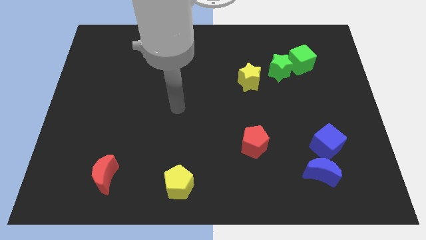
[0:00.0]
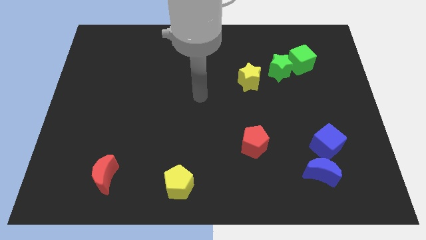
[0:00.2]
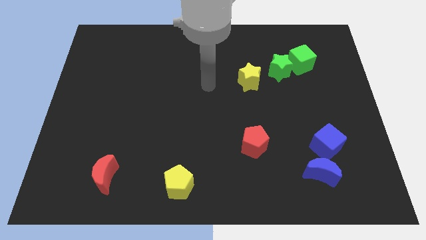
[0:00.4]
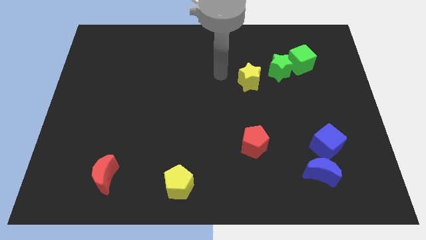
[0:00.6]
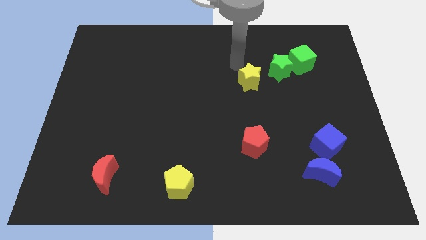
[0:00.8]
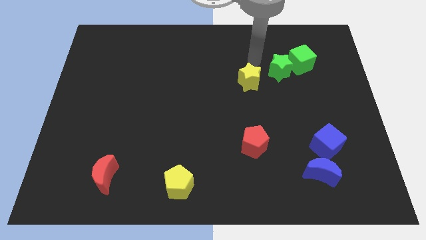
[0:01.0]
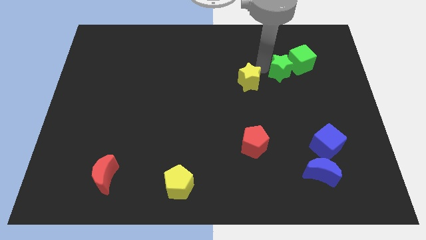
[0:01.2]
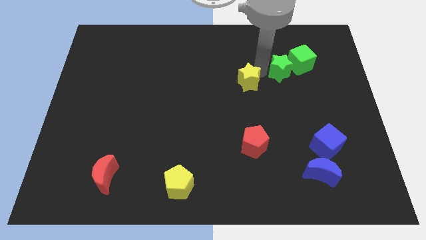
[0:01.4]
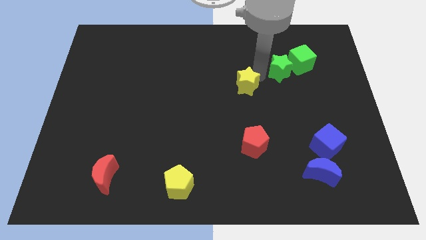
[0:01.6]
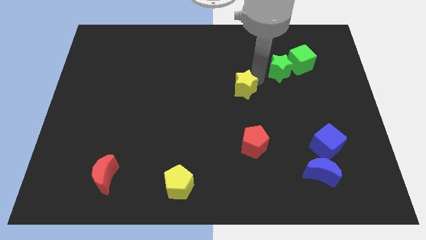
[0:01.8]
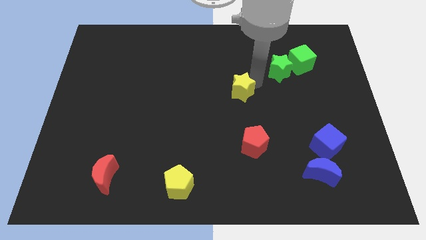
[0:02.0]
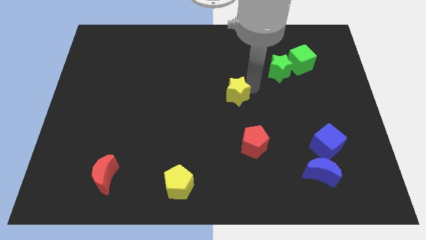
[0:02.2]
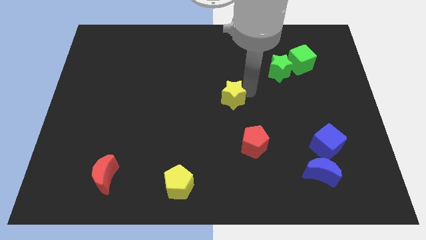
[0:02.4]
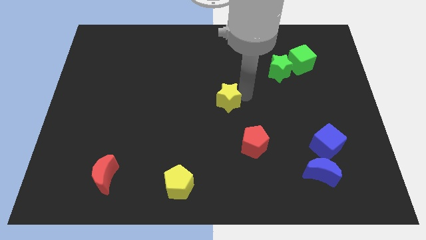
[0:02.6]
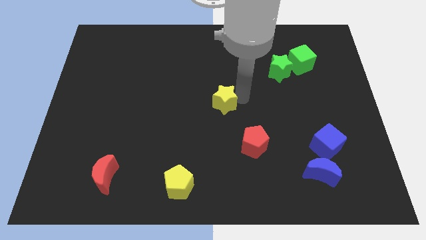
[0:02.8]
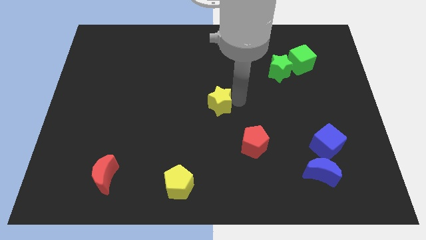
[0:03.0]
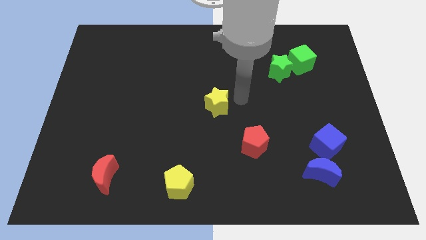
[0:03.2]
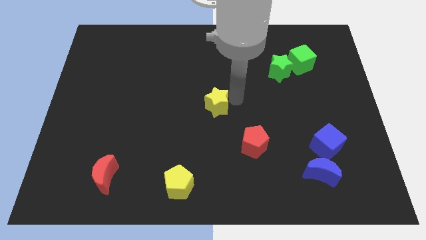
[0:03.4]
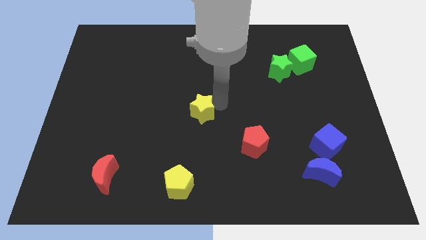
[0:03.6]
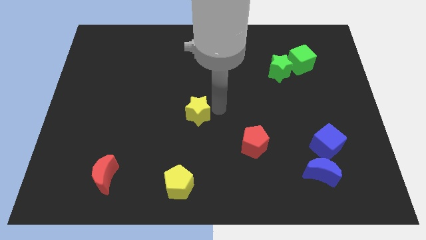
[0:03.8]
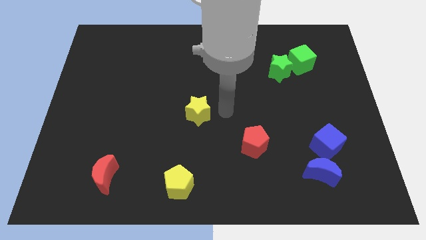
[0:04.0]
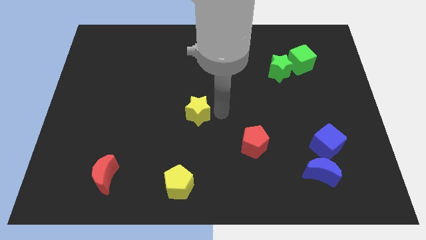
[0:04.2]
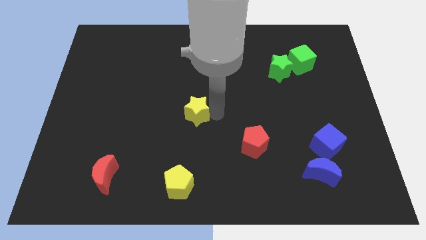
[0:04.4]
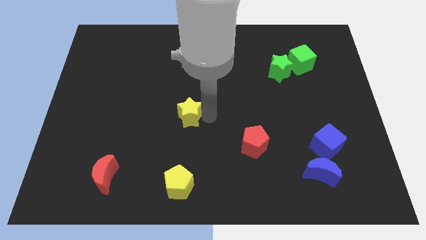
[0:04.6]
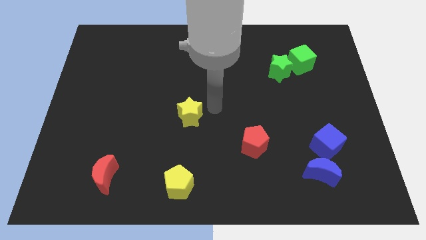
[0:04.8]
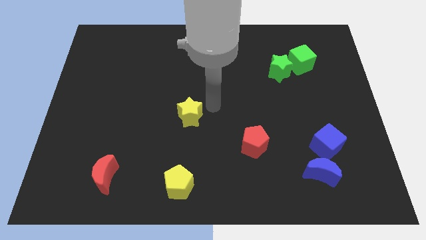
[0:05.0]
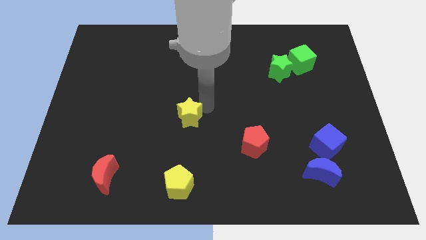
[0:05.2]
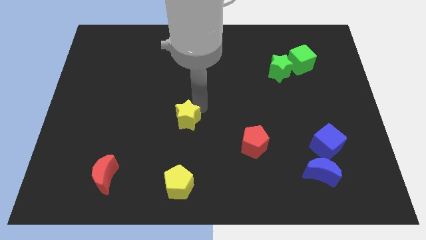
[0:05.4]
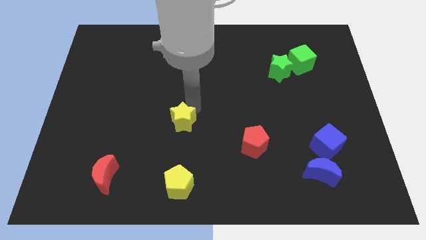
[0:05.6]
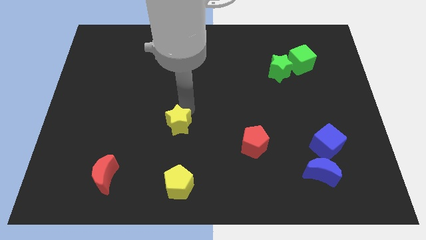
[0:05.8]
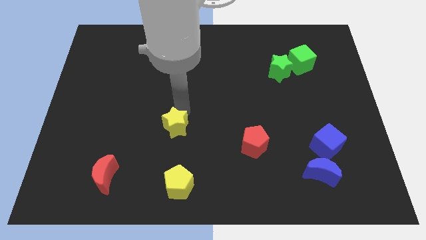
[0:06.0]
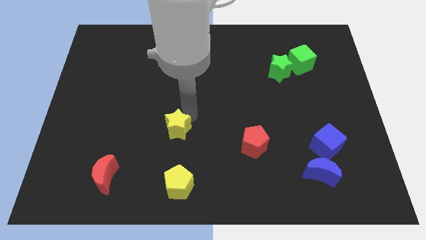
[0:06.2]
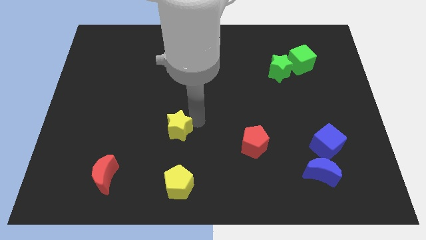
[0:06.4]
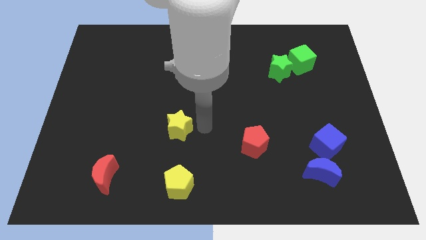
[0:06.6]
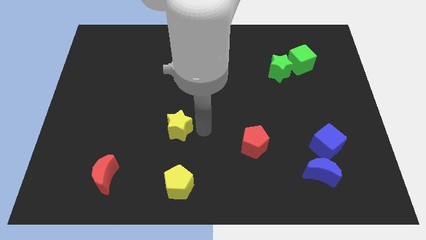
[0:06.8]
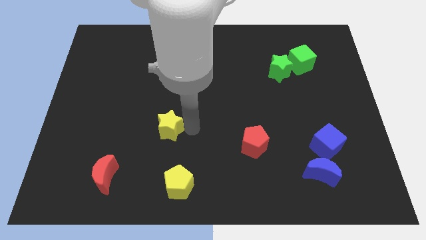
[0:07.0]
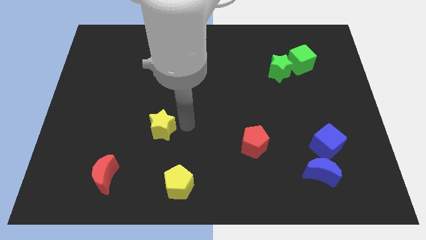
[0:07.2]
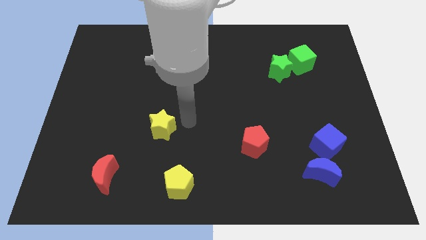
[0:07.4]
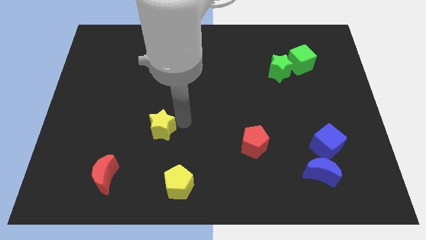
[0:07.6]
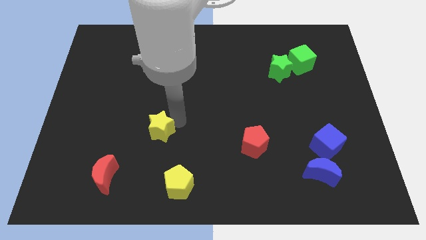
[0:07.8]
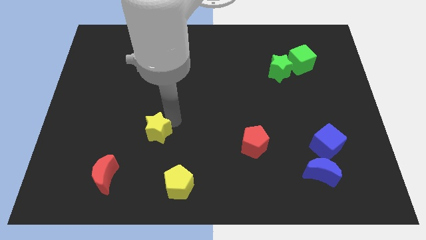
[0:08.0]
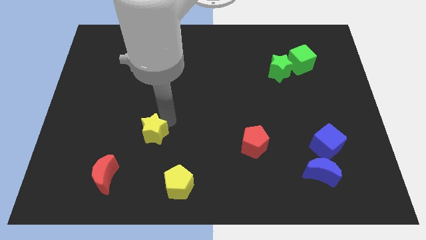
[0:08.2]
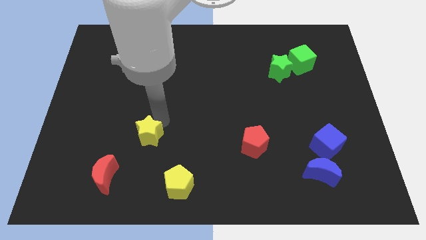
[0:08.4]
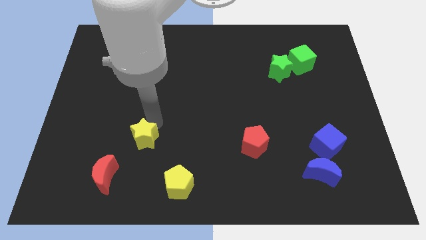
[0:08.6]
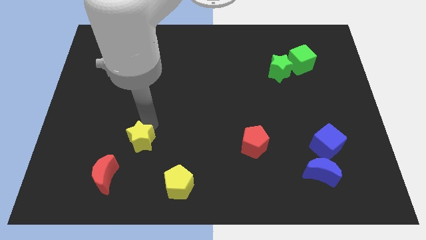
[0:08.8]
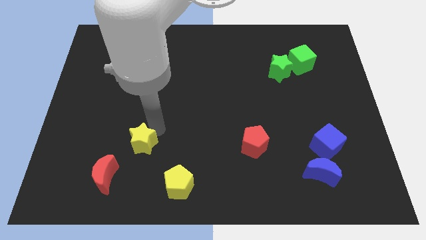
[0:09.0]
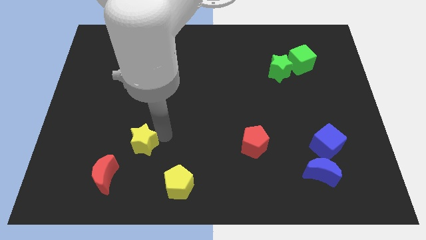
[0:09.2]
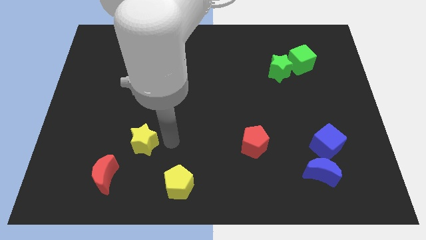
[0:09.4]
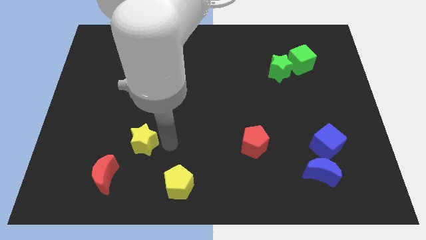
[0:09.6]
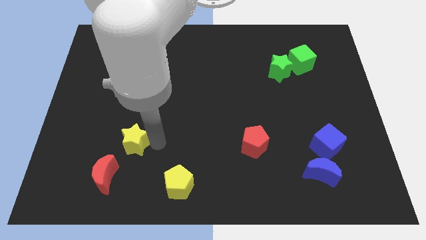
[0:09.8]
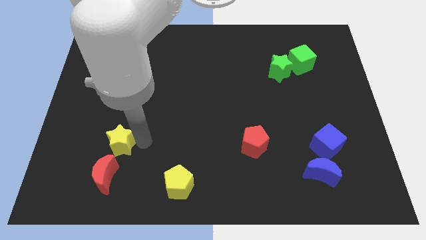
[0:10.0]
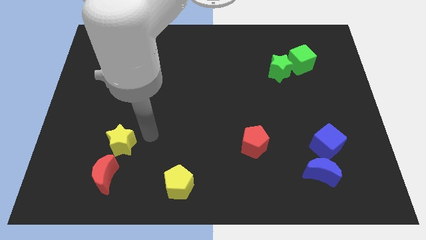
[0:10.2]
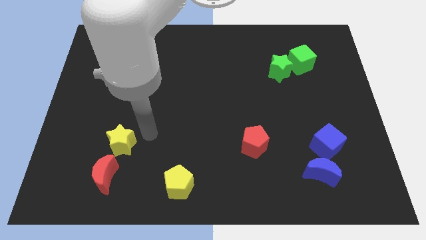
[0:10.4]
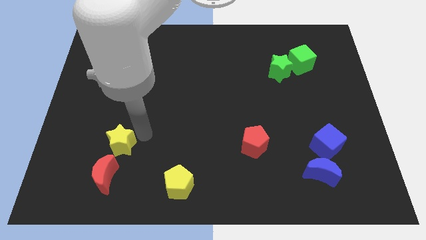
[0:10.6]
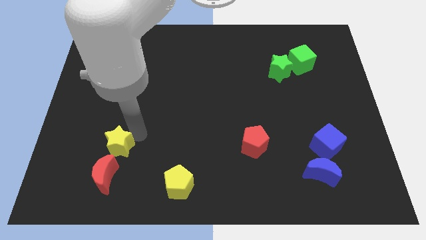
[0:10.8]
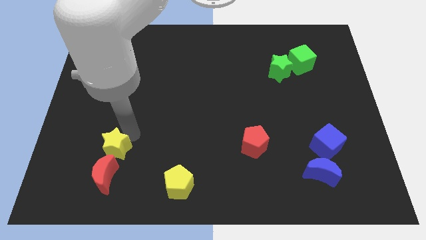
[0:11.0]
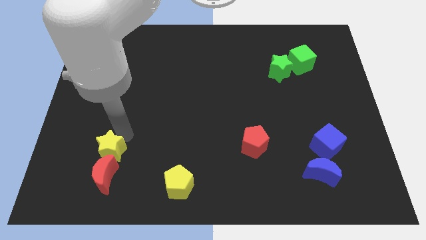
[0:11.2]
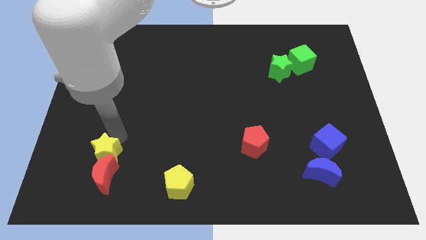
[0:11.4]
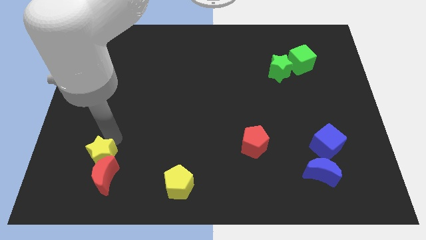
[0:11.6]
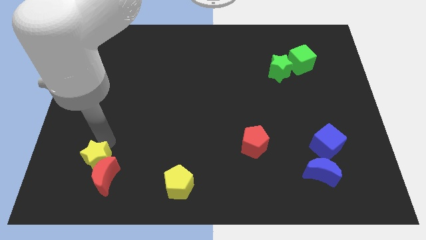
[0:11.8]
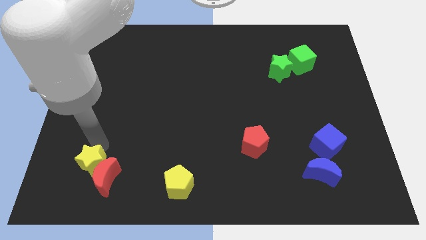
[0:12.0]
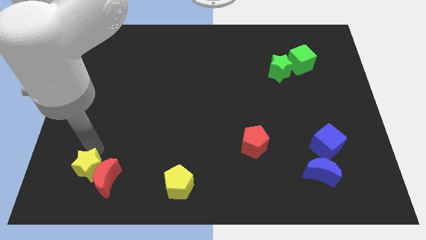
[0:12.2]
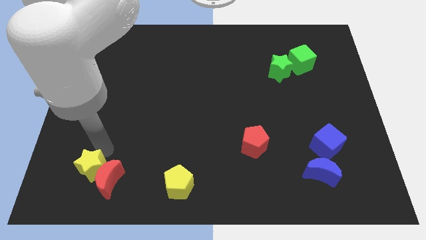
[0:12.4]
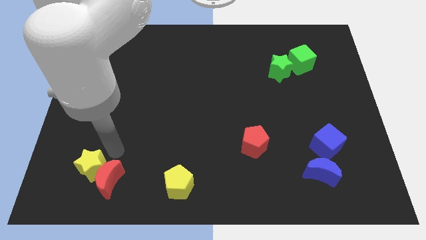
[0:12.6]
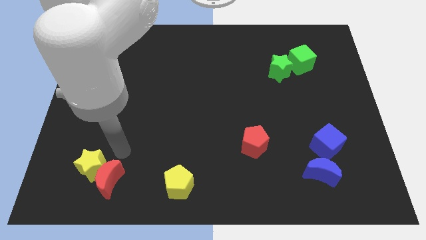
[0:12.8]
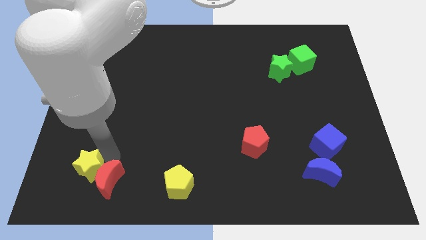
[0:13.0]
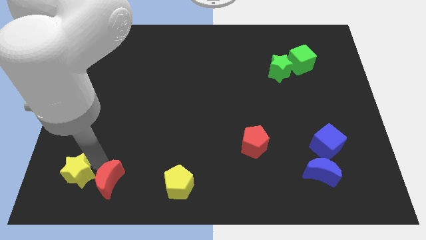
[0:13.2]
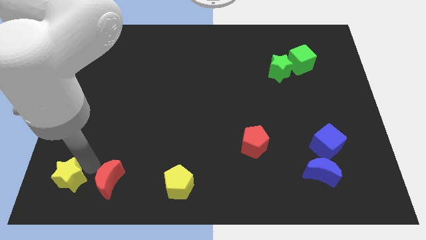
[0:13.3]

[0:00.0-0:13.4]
push the yellow star to the lower left corner

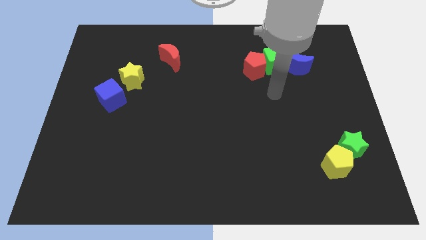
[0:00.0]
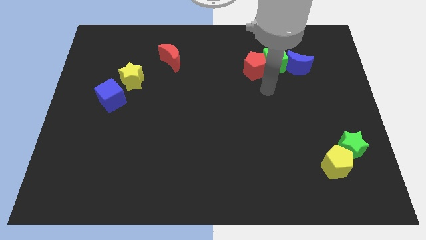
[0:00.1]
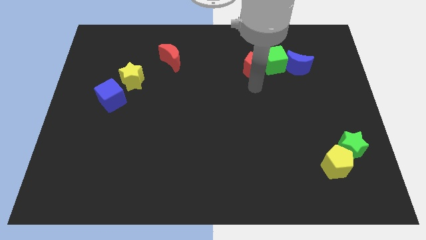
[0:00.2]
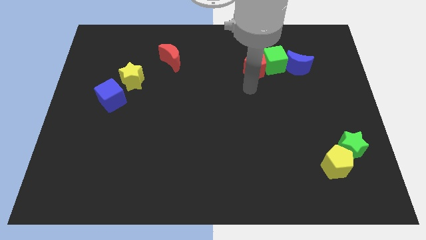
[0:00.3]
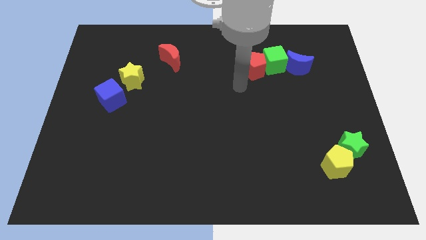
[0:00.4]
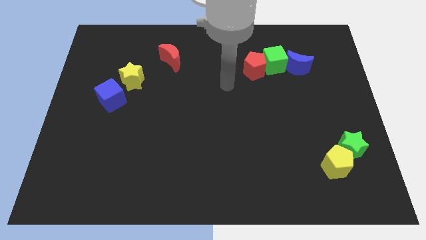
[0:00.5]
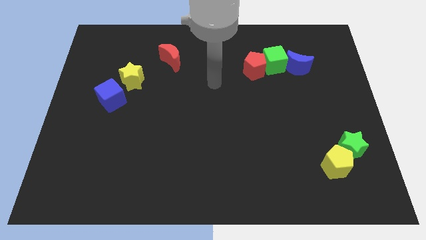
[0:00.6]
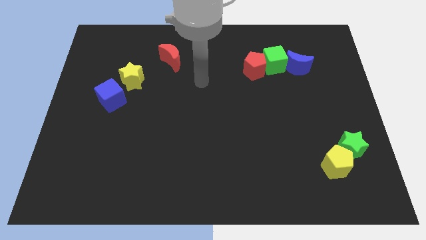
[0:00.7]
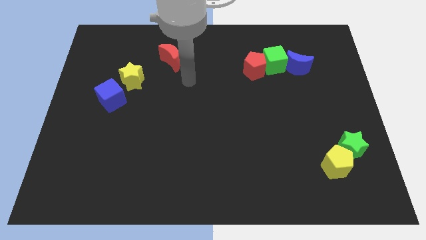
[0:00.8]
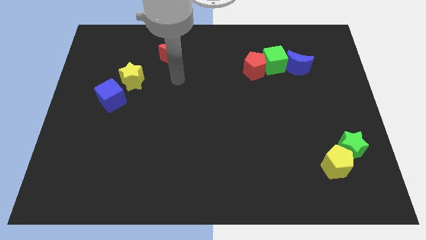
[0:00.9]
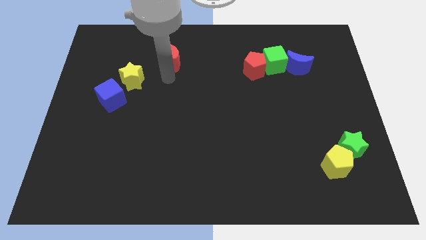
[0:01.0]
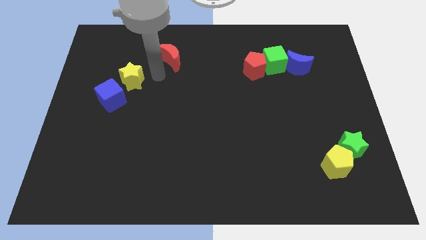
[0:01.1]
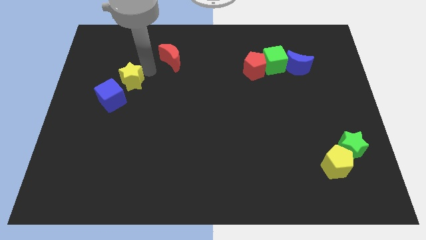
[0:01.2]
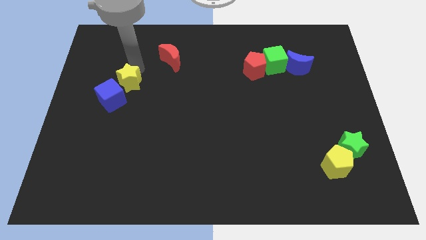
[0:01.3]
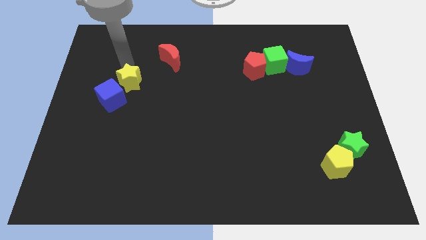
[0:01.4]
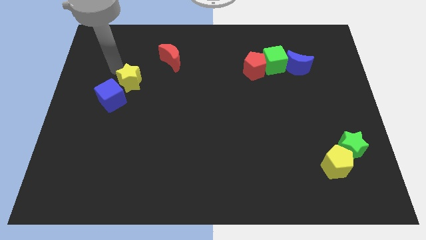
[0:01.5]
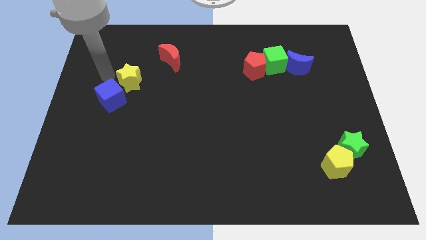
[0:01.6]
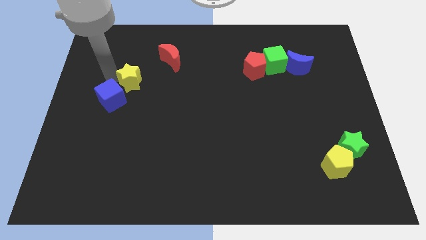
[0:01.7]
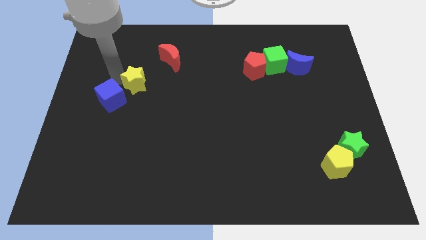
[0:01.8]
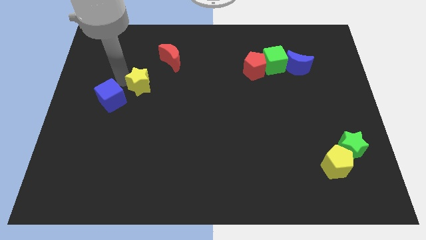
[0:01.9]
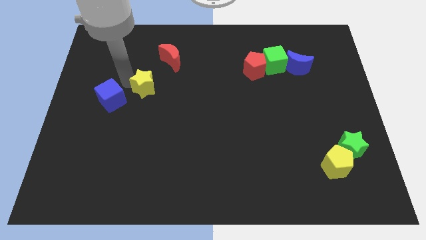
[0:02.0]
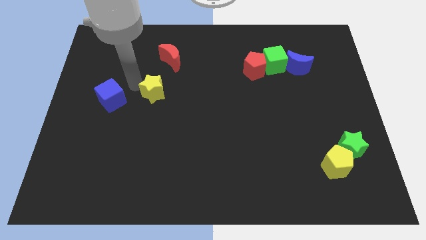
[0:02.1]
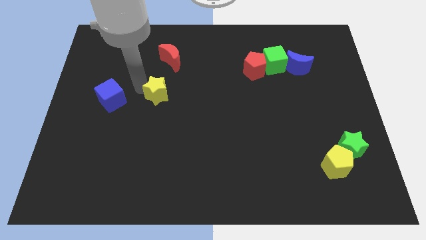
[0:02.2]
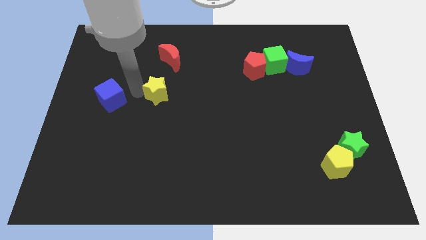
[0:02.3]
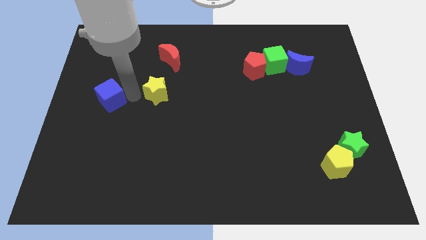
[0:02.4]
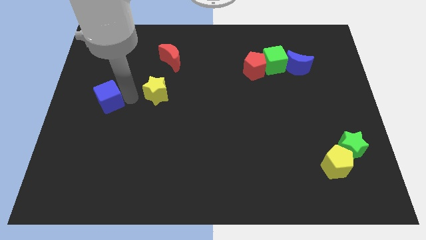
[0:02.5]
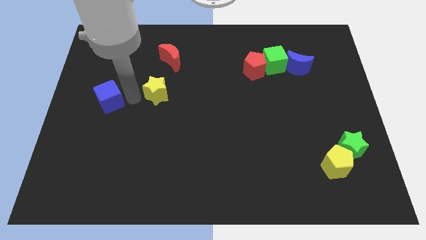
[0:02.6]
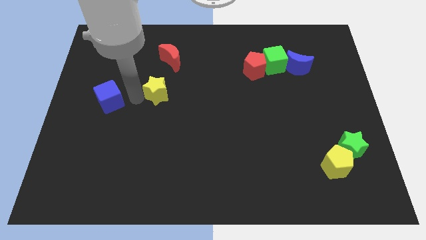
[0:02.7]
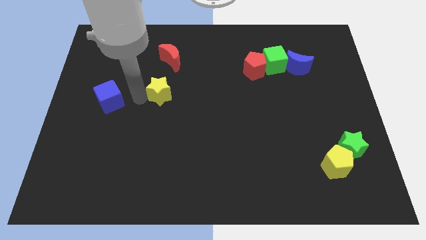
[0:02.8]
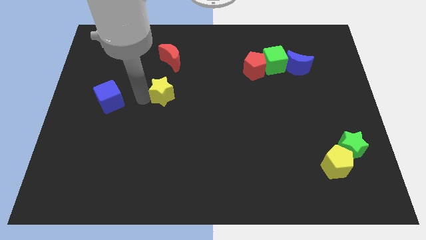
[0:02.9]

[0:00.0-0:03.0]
move the yellow star to the center
